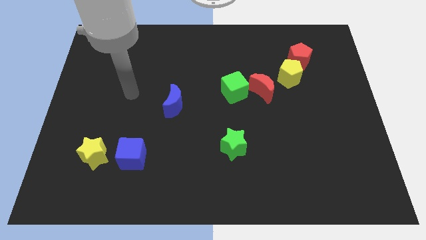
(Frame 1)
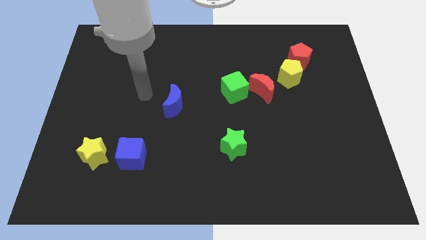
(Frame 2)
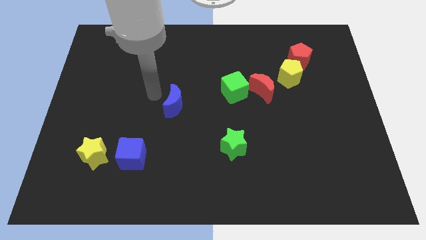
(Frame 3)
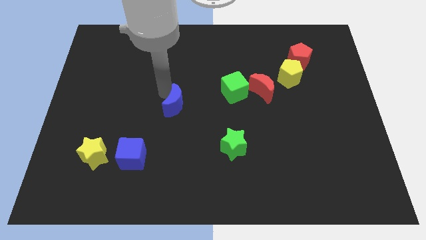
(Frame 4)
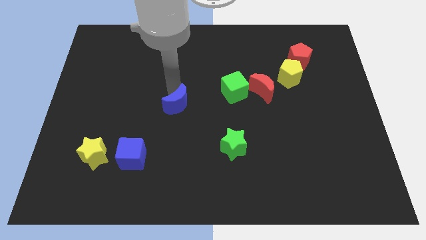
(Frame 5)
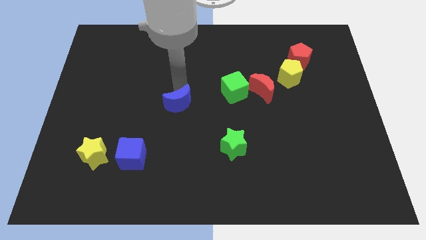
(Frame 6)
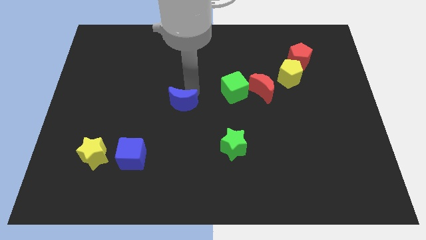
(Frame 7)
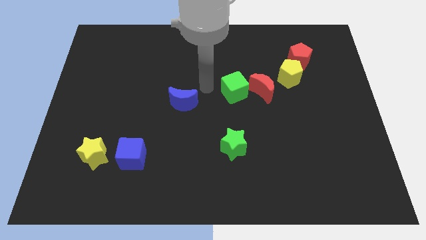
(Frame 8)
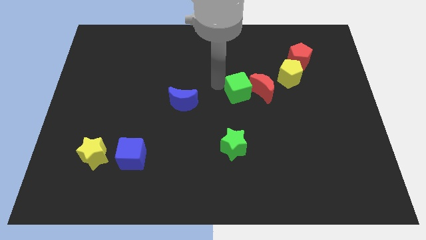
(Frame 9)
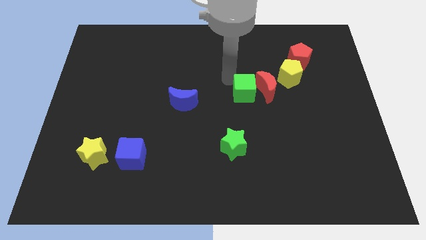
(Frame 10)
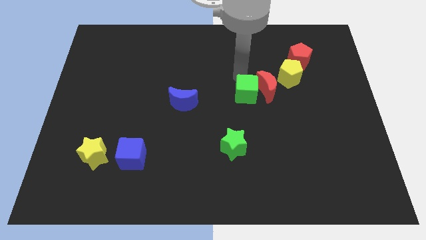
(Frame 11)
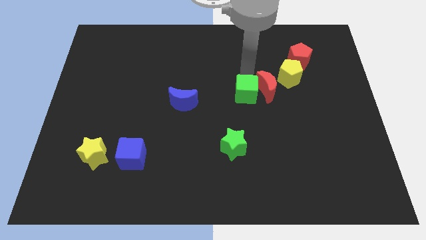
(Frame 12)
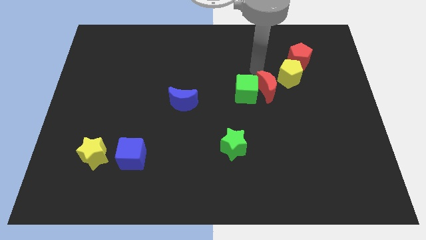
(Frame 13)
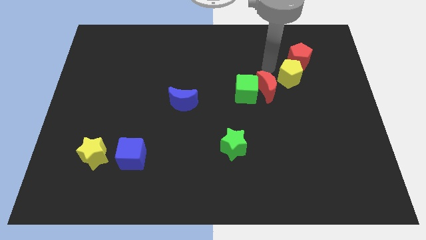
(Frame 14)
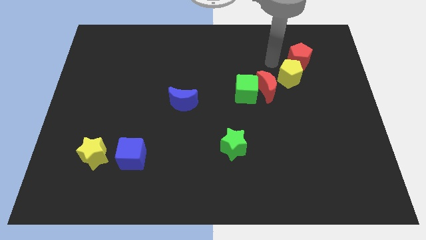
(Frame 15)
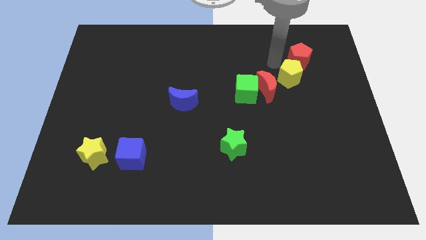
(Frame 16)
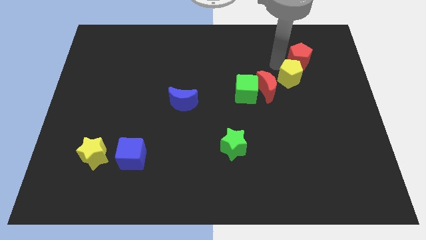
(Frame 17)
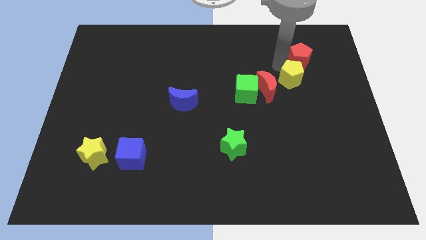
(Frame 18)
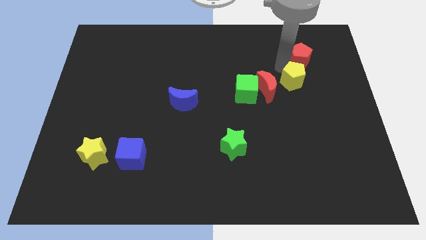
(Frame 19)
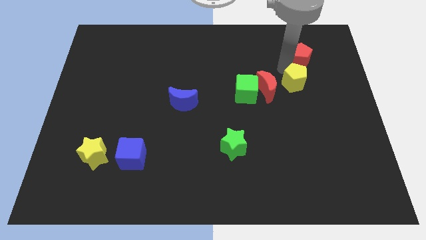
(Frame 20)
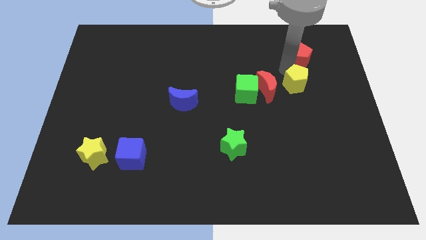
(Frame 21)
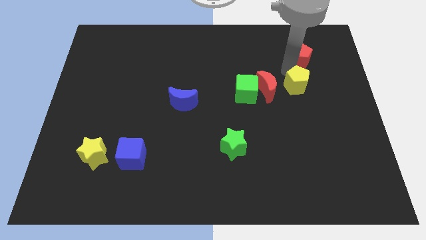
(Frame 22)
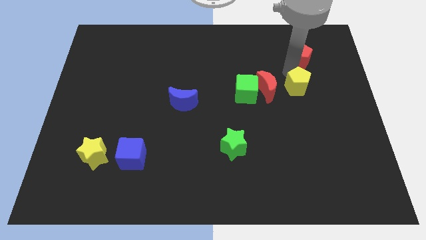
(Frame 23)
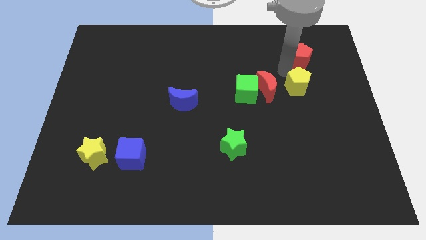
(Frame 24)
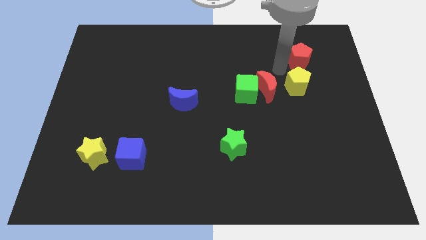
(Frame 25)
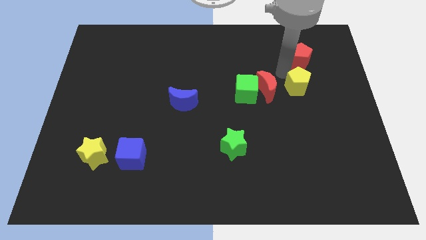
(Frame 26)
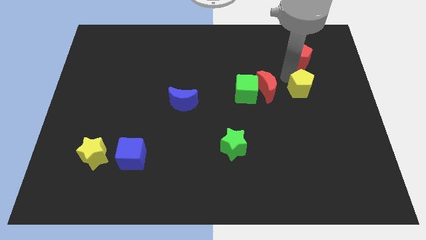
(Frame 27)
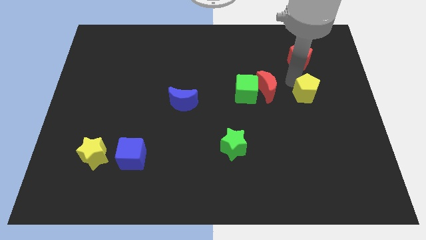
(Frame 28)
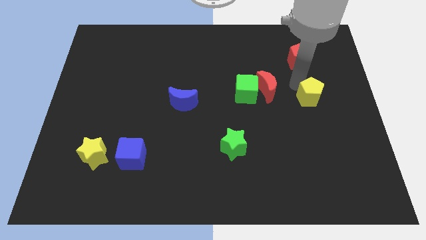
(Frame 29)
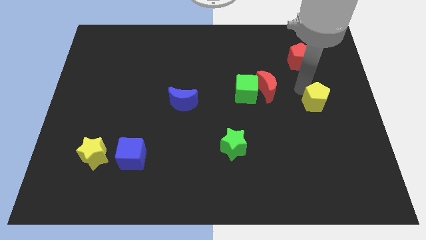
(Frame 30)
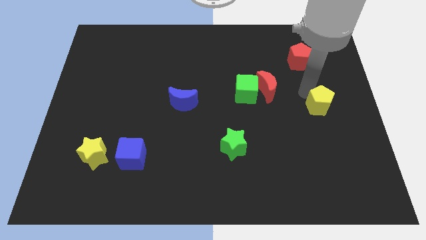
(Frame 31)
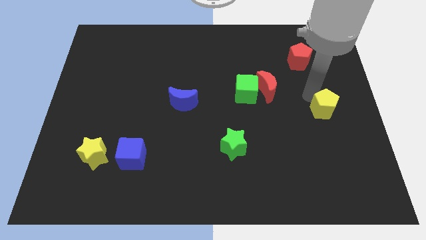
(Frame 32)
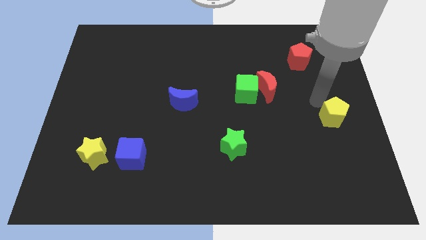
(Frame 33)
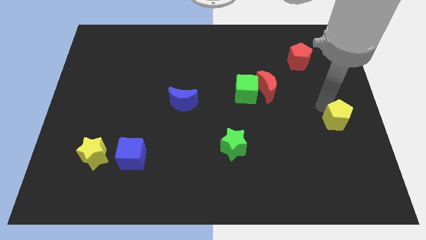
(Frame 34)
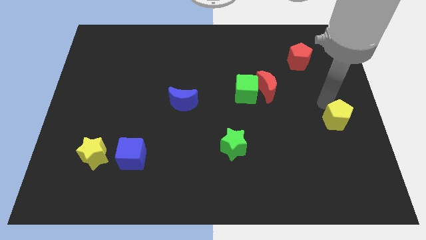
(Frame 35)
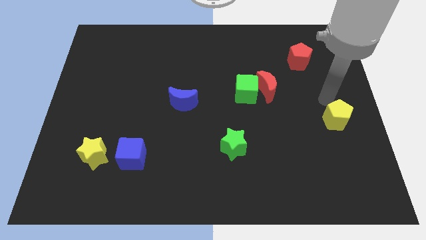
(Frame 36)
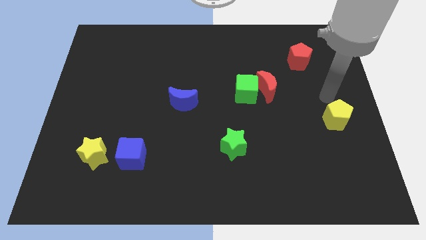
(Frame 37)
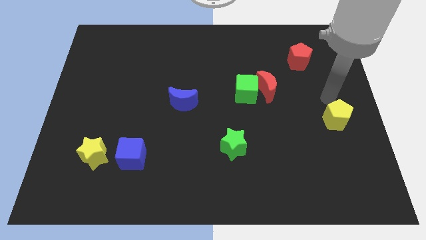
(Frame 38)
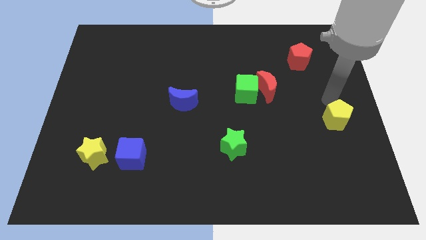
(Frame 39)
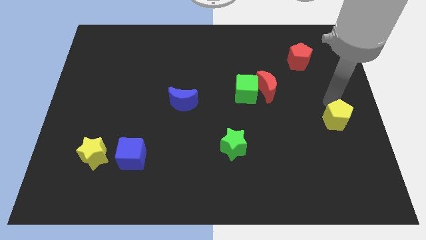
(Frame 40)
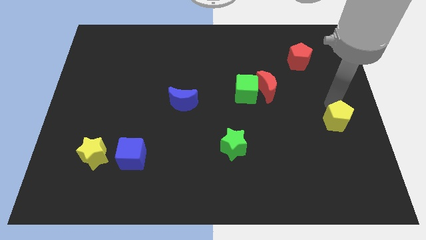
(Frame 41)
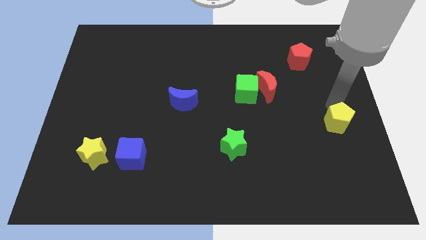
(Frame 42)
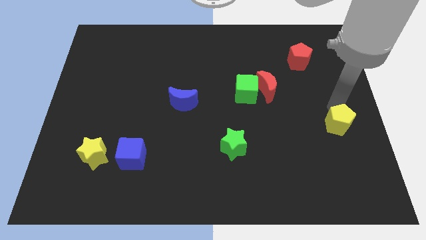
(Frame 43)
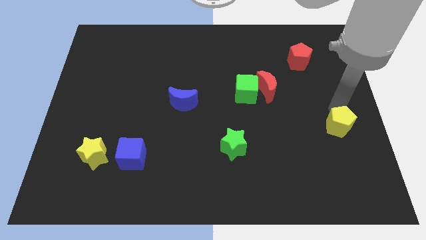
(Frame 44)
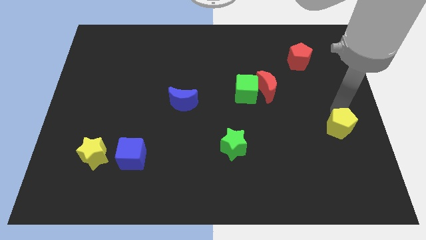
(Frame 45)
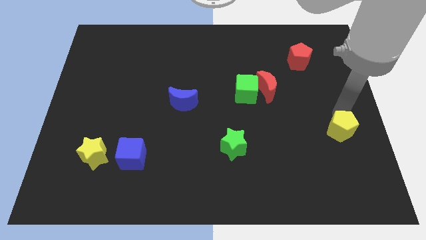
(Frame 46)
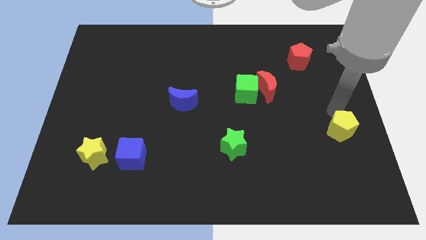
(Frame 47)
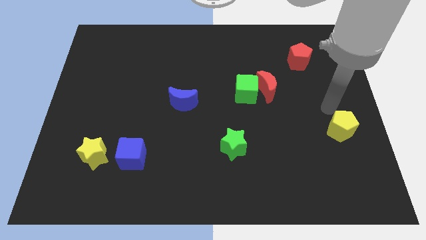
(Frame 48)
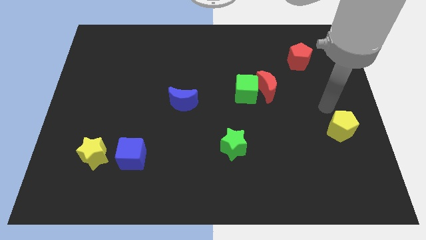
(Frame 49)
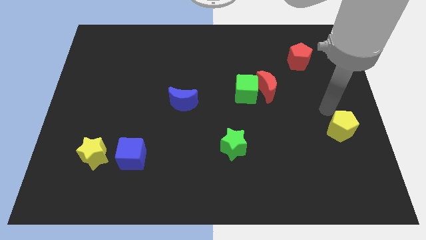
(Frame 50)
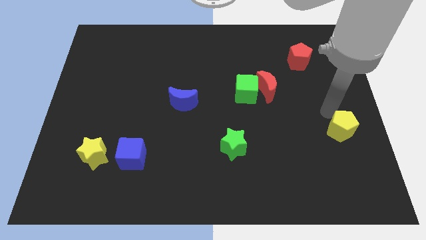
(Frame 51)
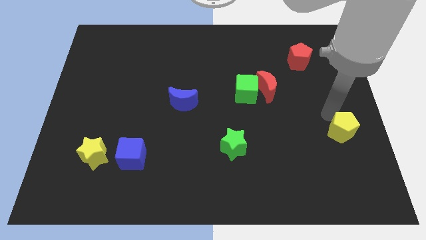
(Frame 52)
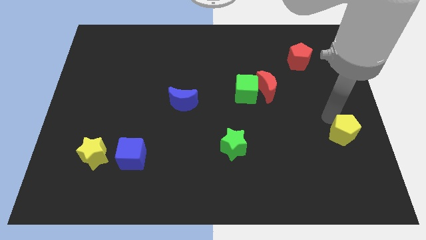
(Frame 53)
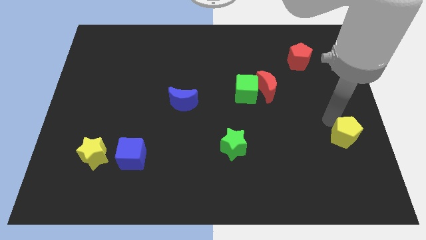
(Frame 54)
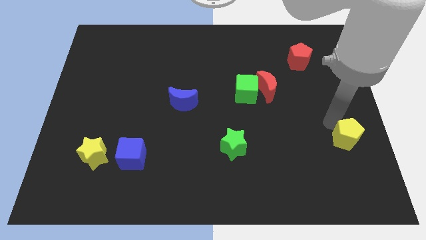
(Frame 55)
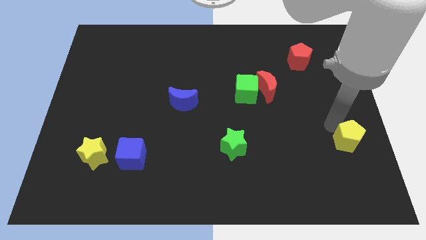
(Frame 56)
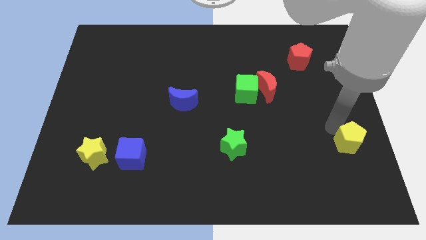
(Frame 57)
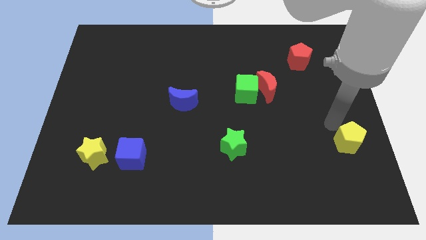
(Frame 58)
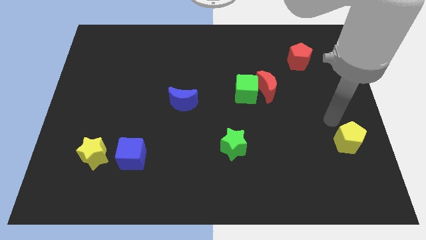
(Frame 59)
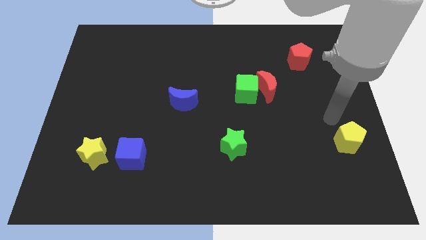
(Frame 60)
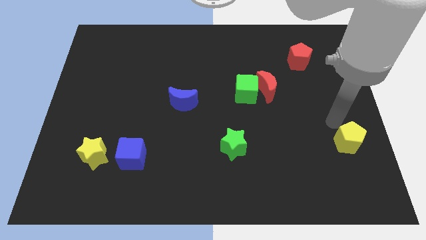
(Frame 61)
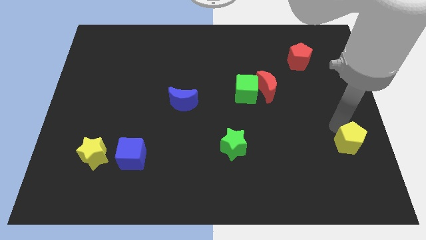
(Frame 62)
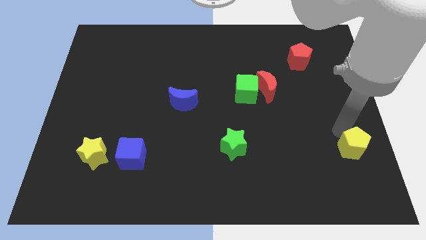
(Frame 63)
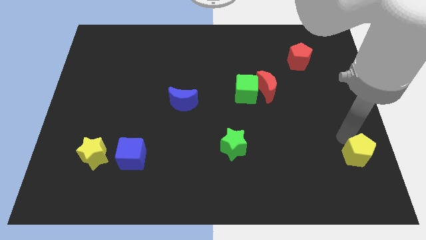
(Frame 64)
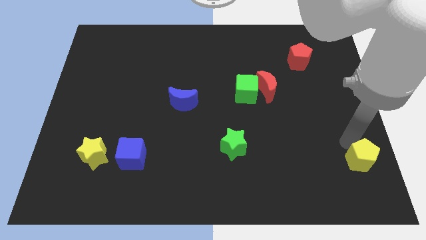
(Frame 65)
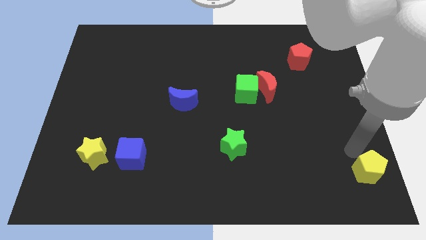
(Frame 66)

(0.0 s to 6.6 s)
push the yellow pentagon to the lower right corner
